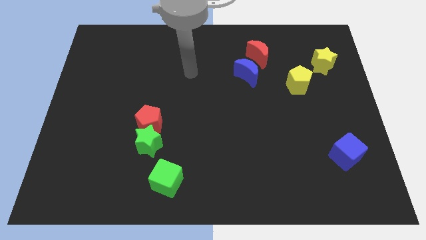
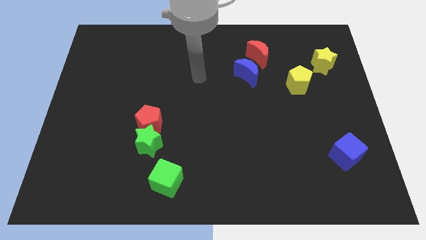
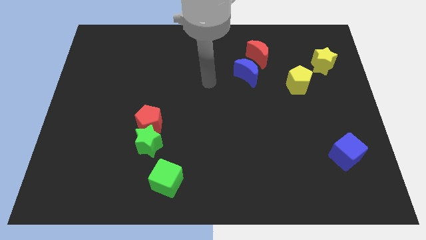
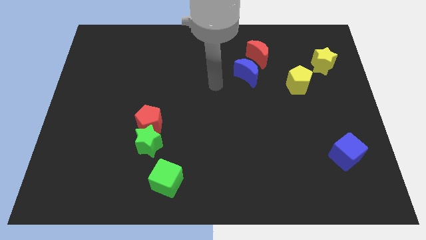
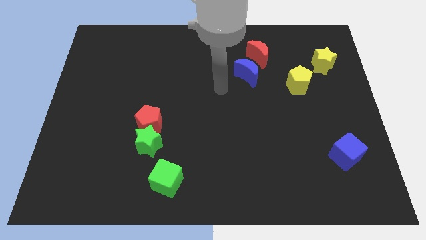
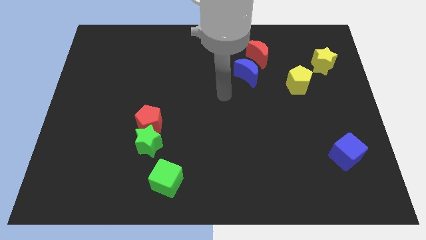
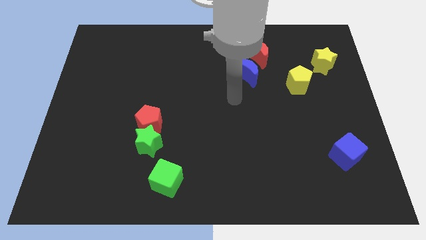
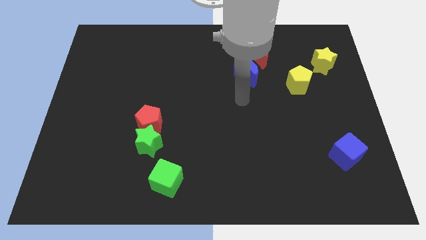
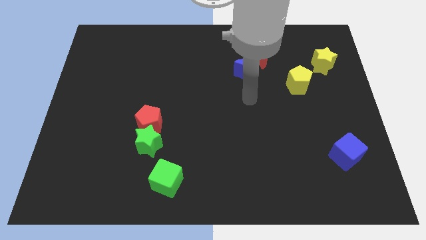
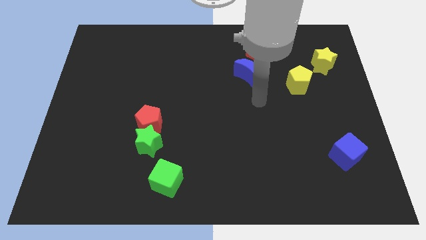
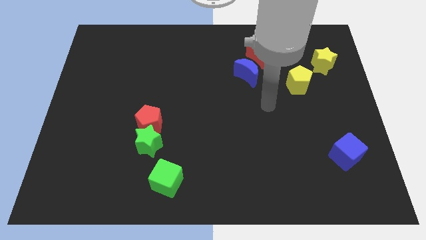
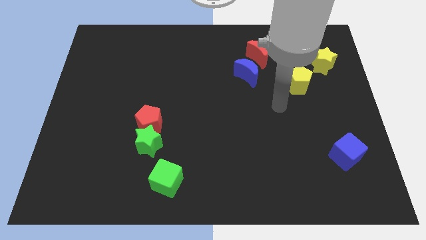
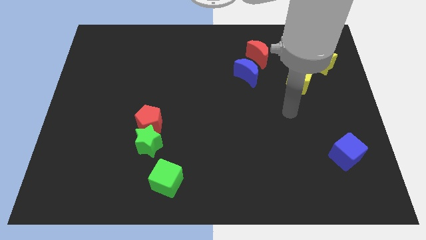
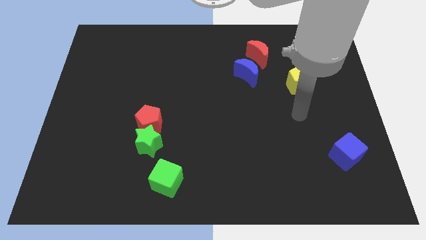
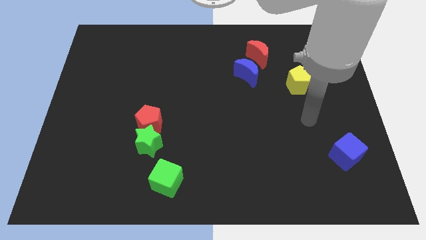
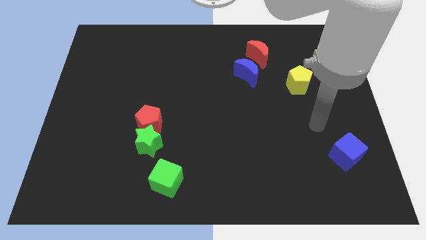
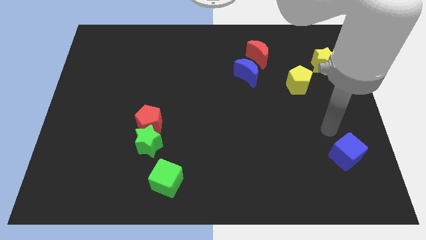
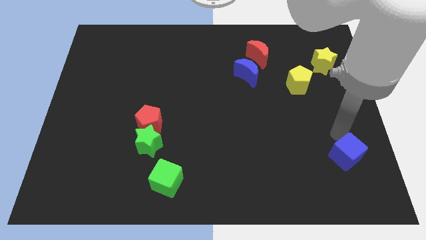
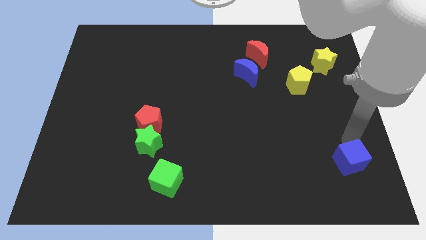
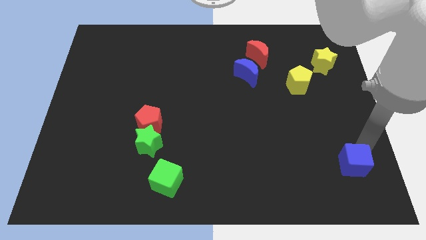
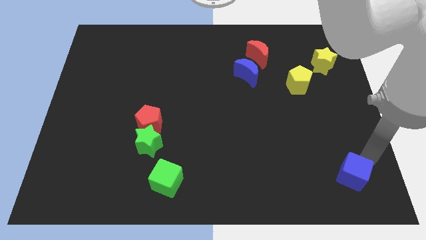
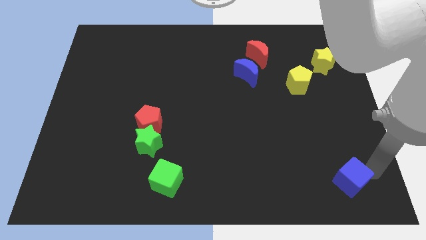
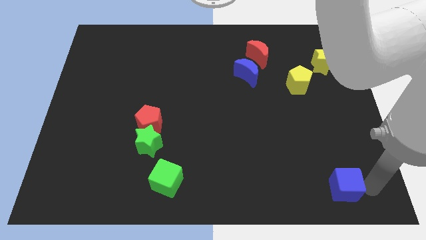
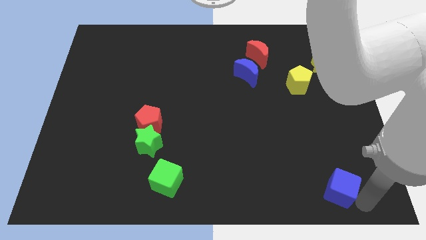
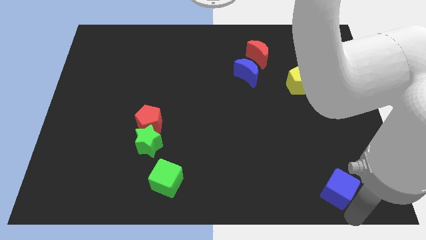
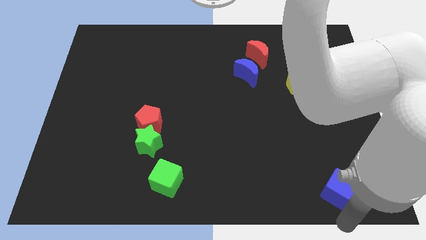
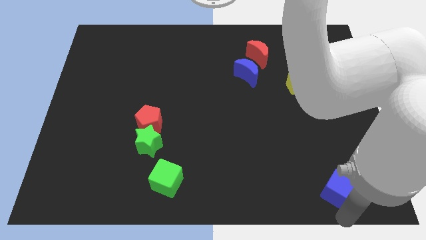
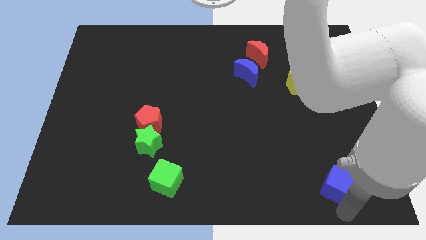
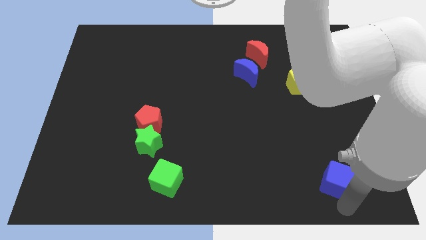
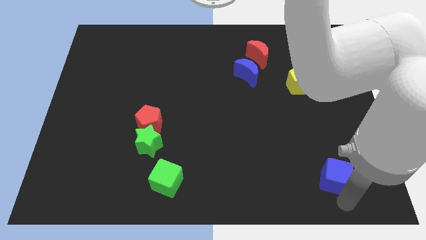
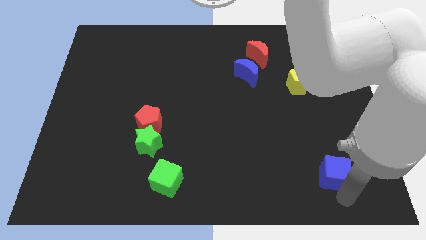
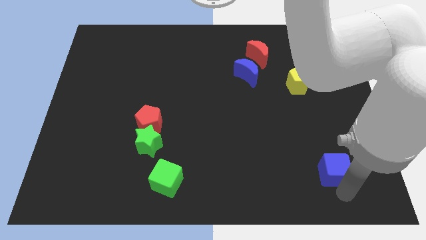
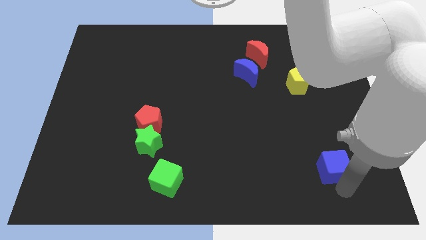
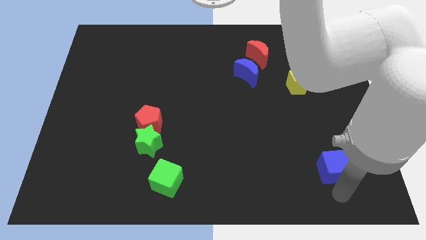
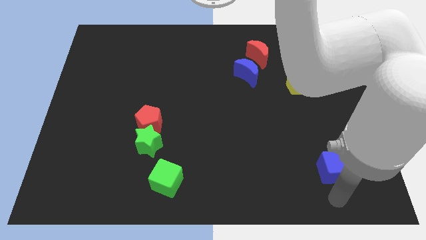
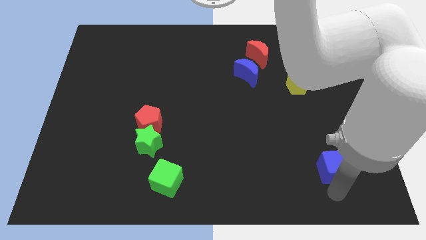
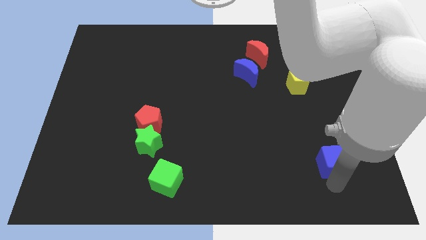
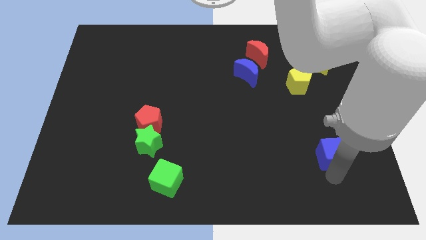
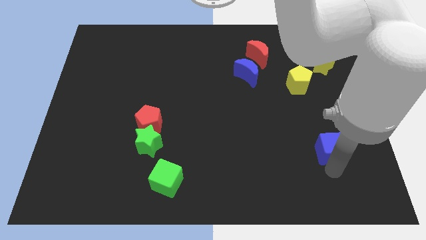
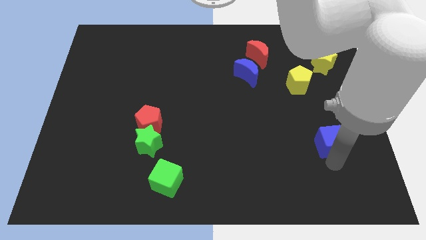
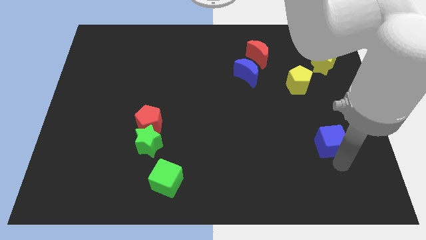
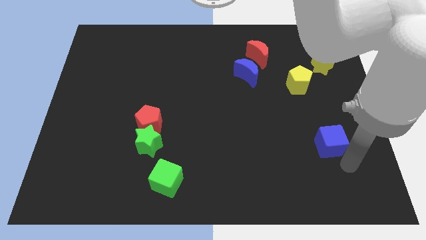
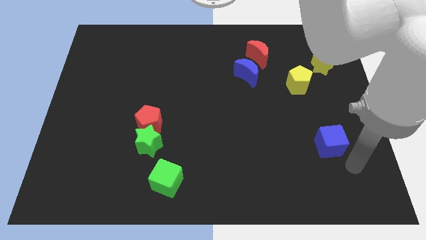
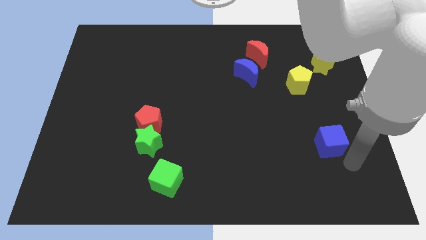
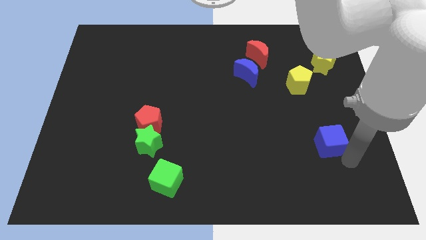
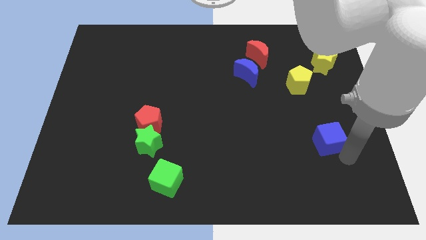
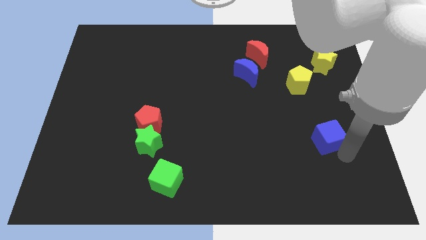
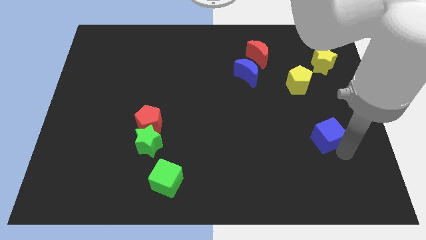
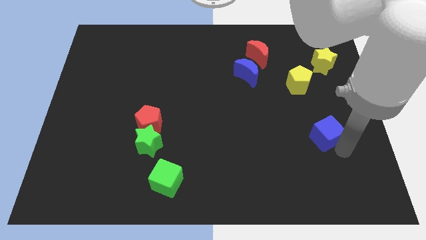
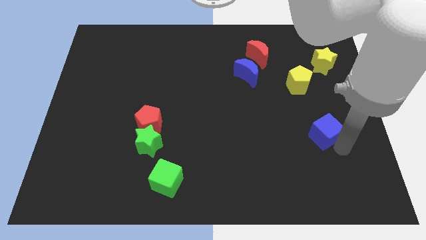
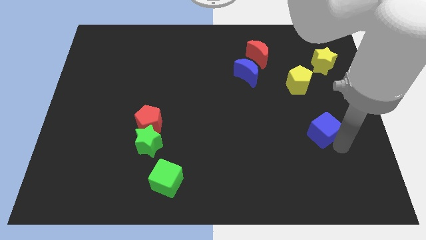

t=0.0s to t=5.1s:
slightly move the blue cube upwards and then left

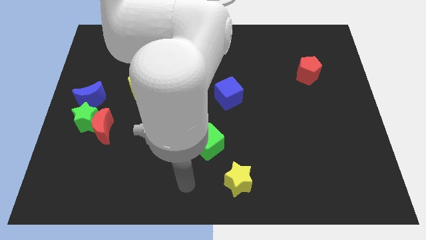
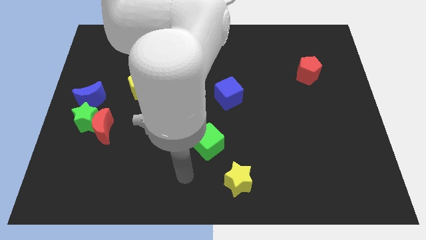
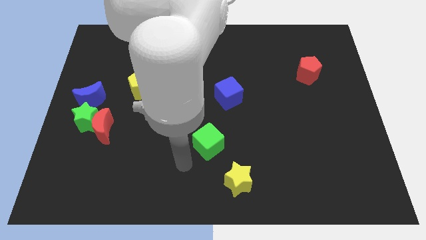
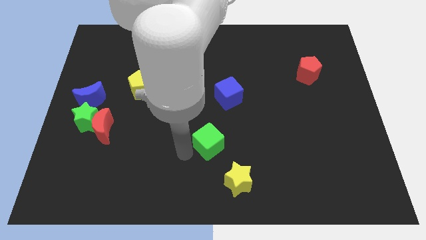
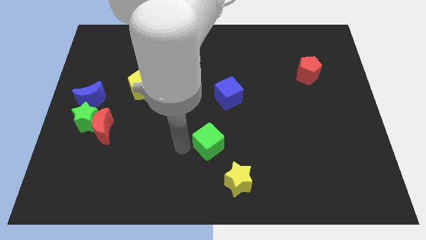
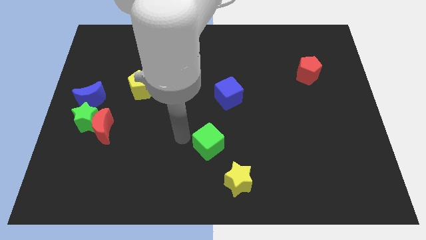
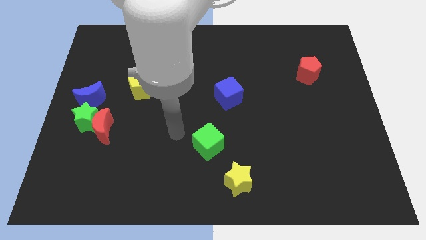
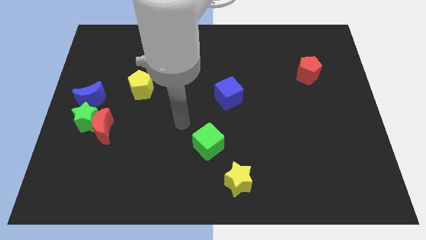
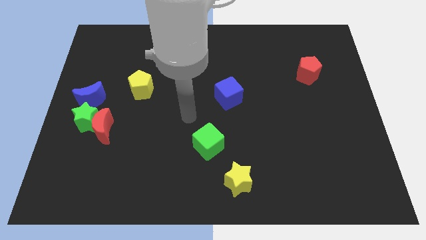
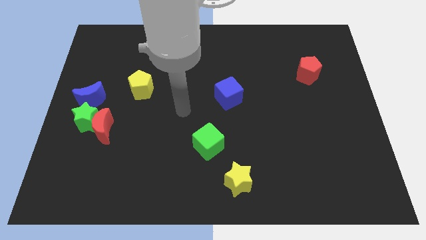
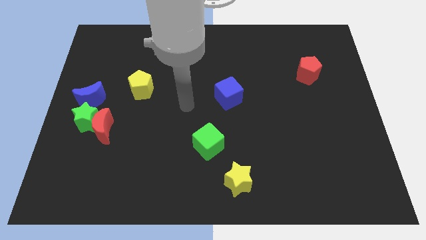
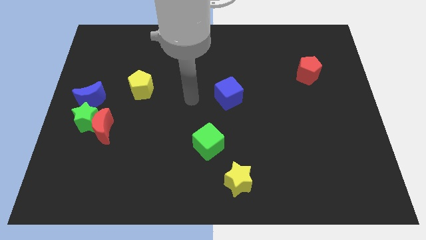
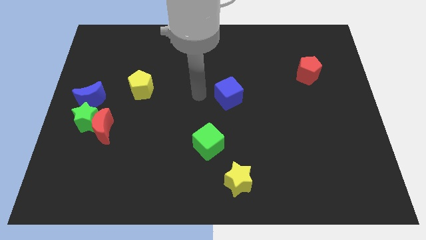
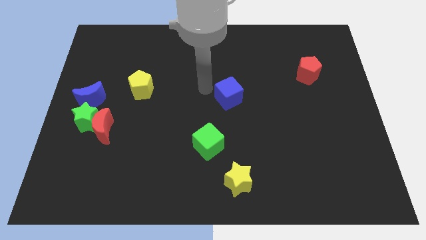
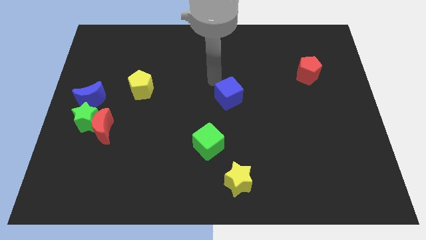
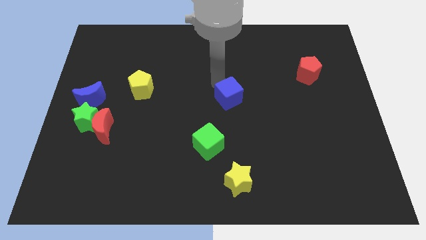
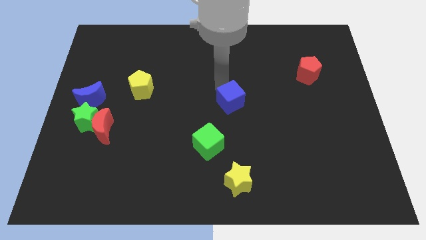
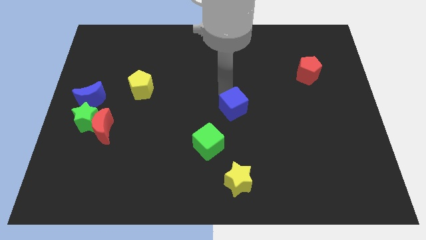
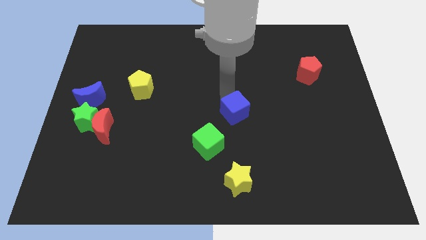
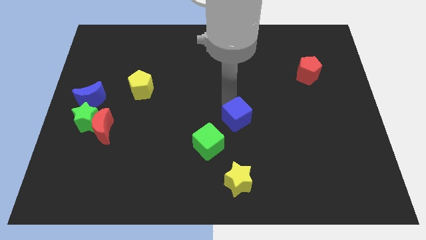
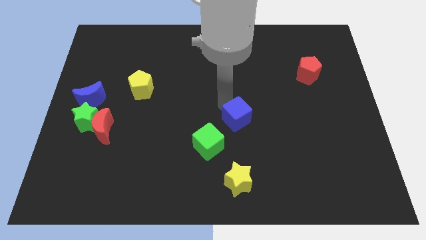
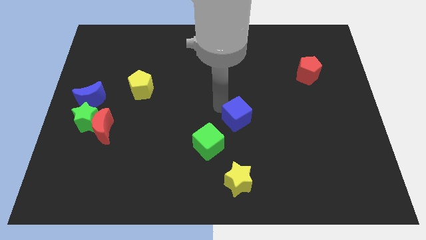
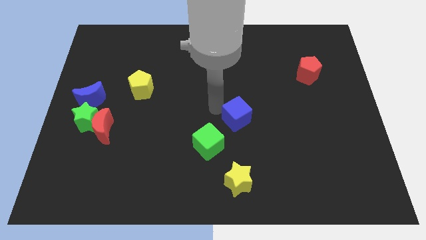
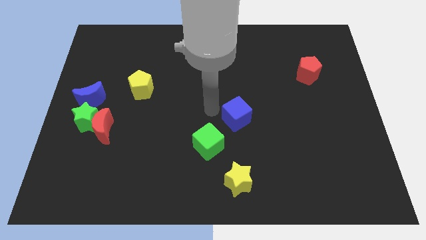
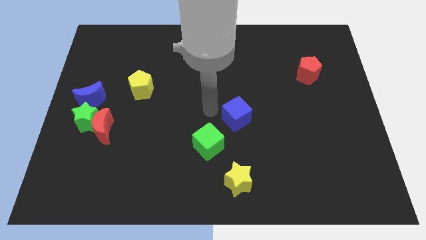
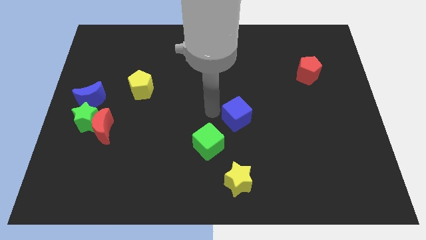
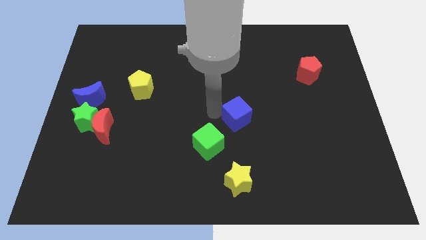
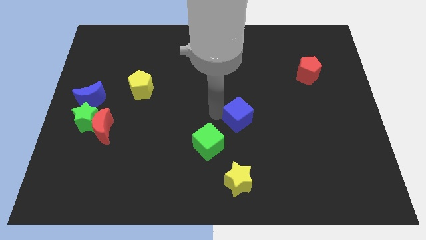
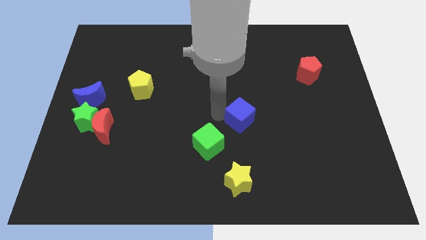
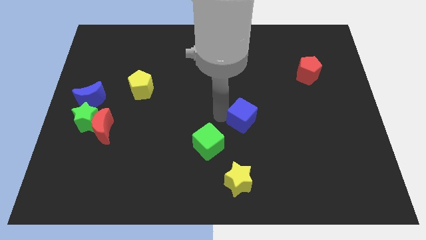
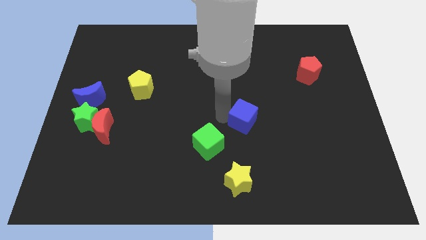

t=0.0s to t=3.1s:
slightly move the blue cube down and right diagonally
